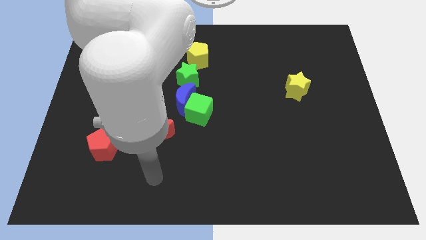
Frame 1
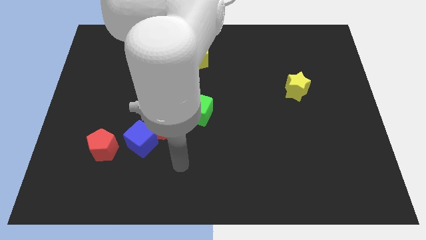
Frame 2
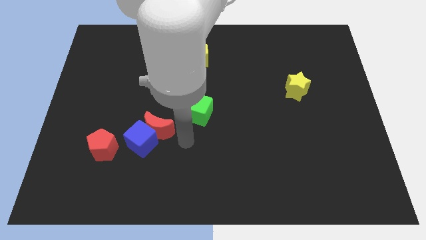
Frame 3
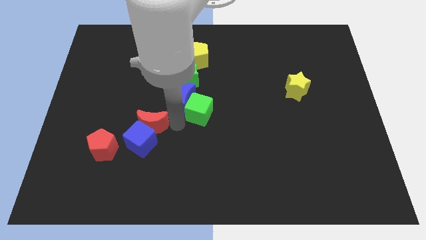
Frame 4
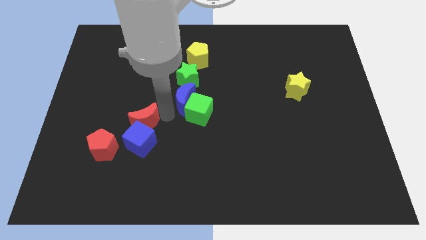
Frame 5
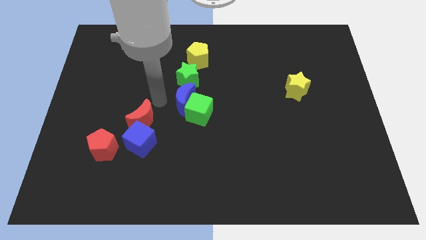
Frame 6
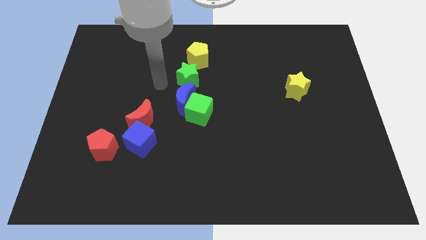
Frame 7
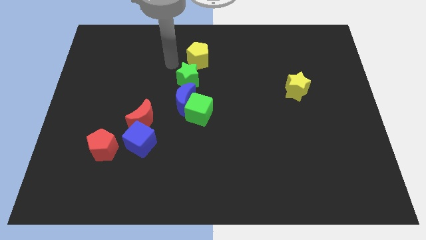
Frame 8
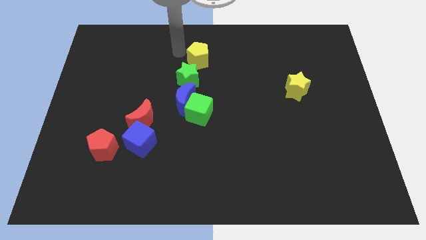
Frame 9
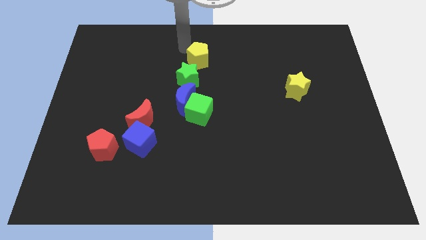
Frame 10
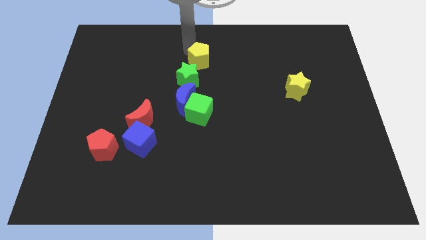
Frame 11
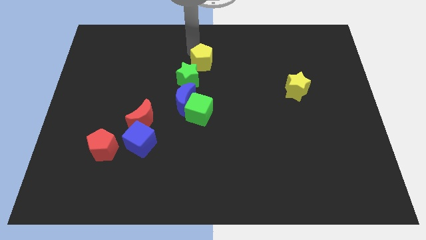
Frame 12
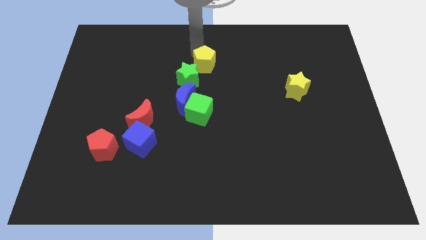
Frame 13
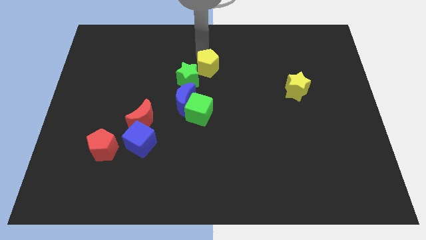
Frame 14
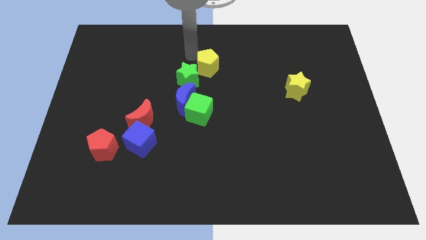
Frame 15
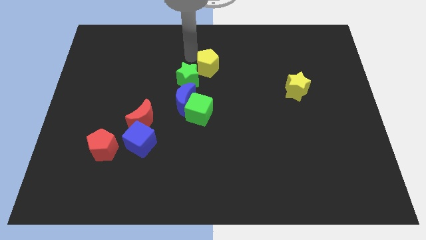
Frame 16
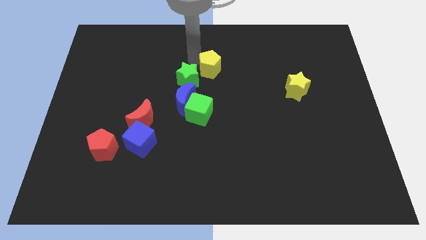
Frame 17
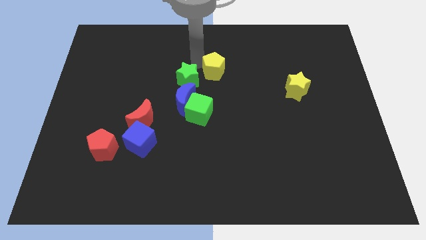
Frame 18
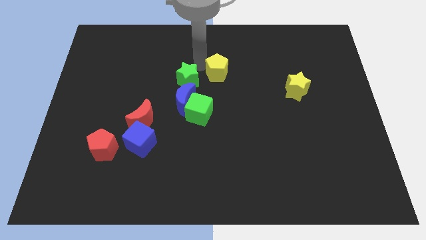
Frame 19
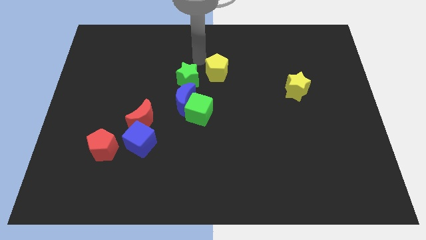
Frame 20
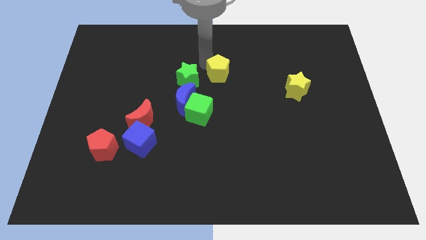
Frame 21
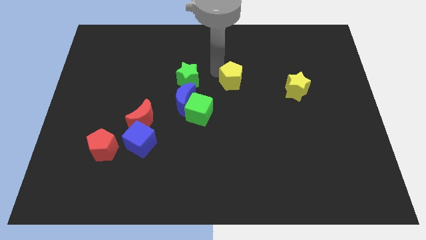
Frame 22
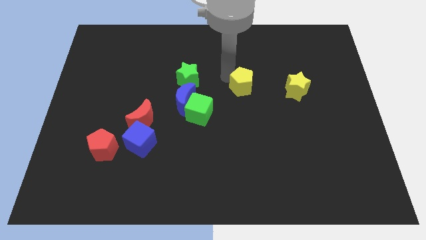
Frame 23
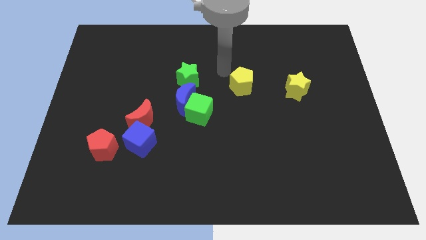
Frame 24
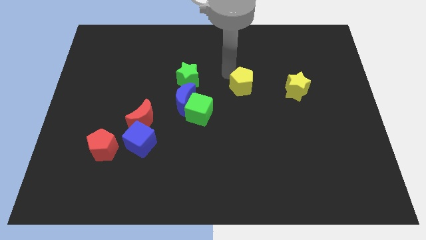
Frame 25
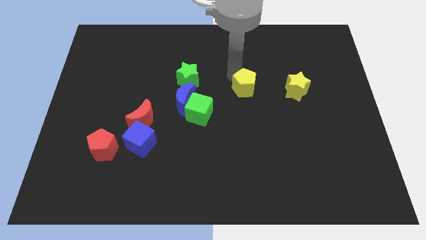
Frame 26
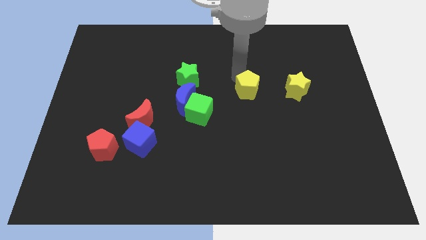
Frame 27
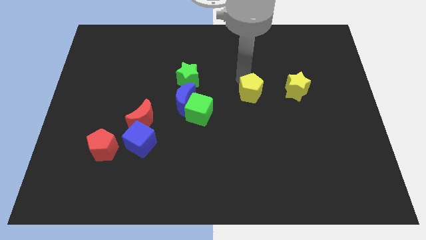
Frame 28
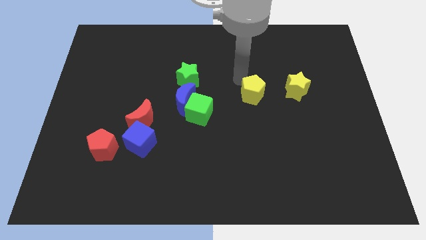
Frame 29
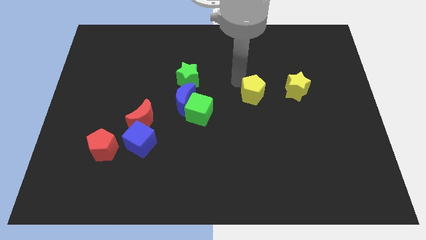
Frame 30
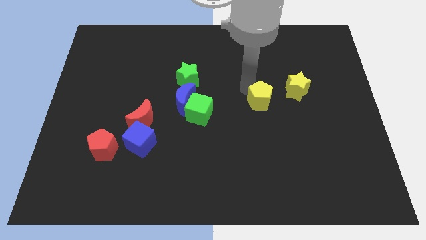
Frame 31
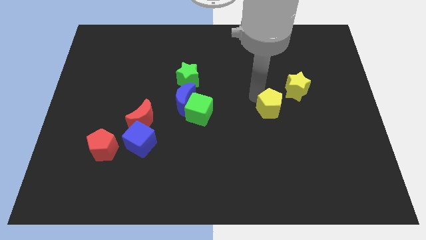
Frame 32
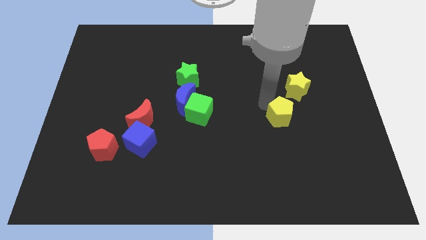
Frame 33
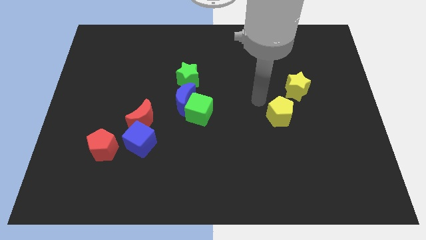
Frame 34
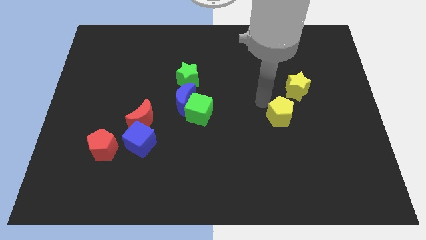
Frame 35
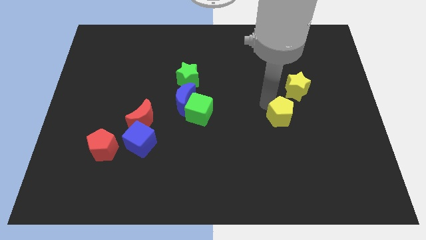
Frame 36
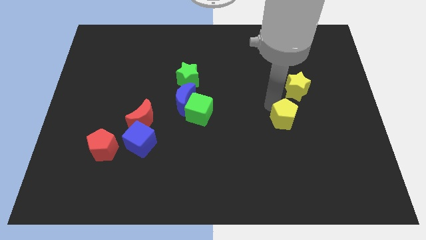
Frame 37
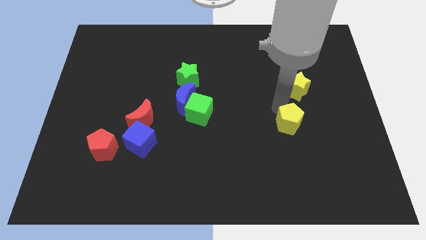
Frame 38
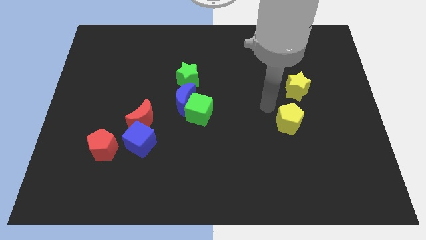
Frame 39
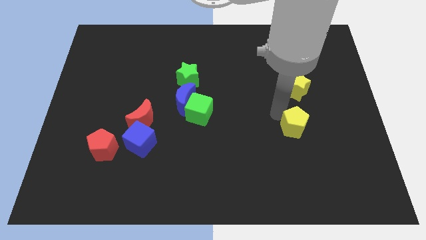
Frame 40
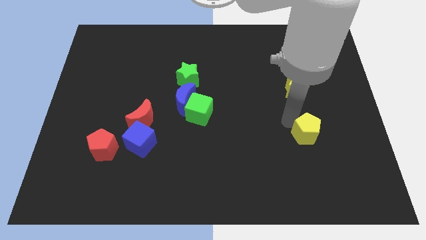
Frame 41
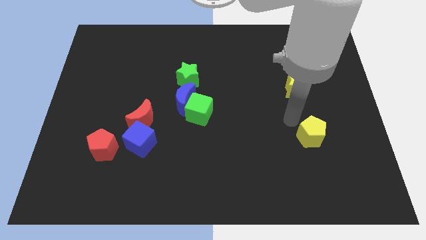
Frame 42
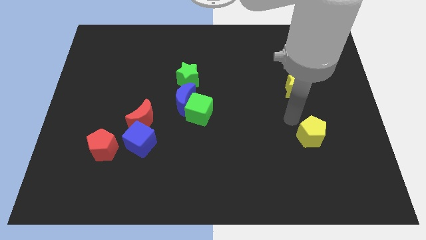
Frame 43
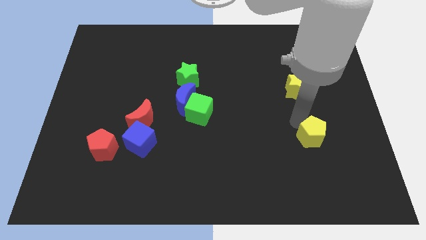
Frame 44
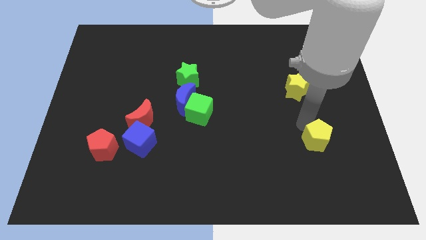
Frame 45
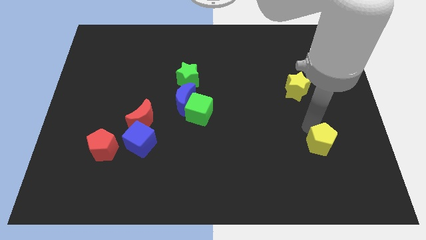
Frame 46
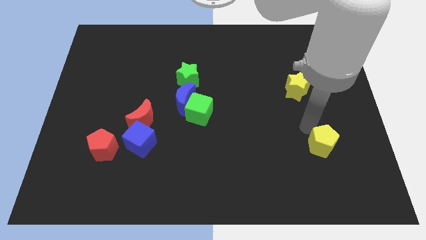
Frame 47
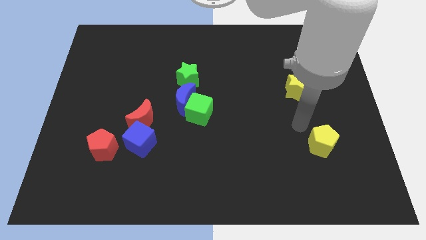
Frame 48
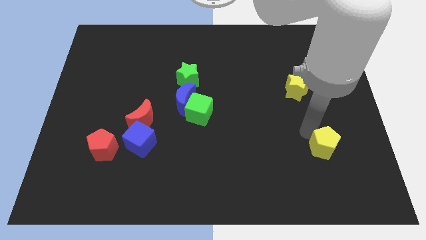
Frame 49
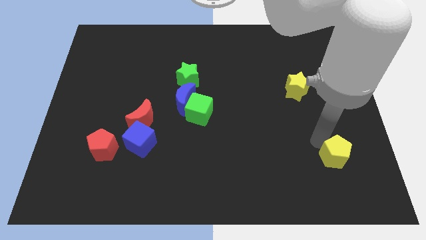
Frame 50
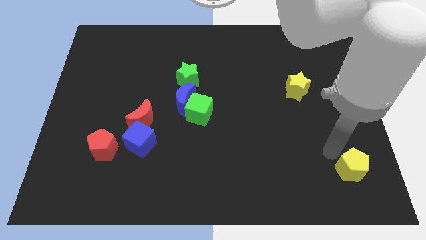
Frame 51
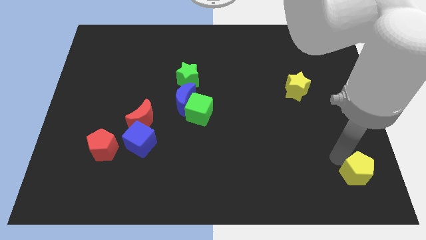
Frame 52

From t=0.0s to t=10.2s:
move the yellow pentagon to the bottom right corner

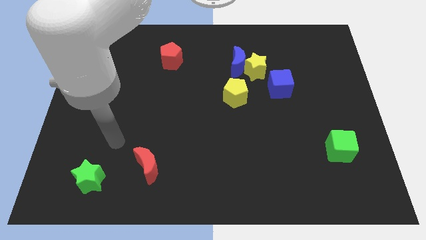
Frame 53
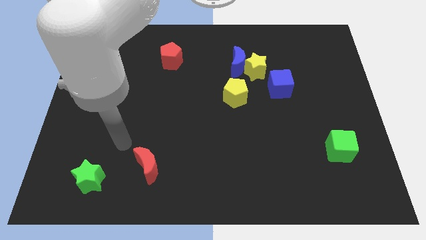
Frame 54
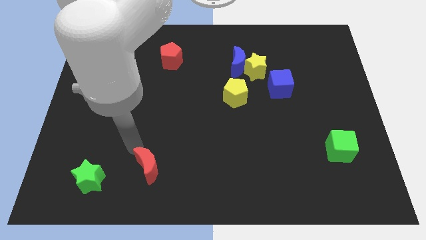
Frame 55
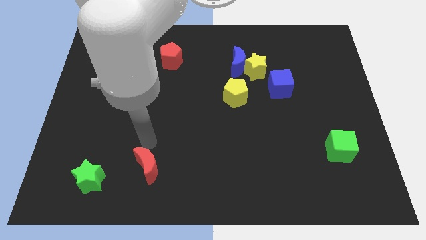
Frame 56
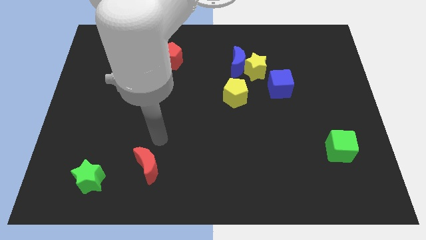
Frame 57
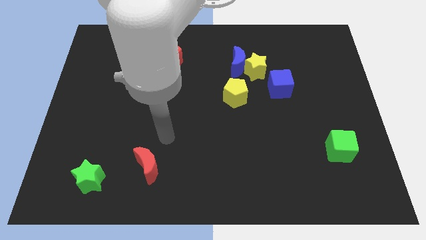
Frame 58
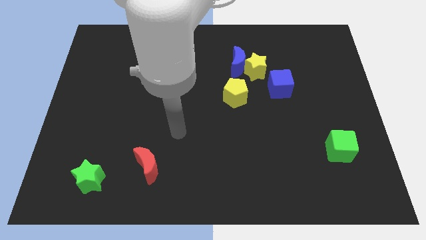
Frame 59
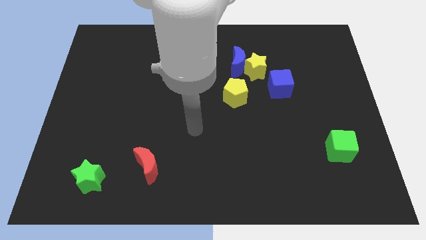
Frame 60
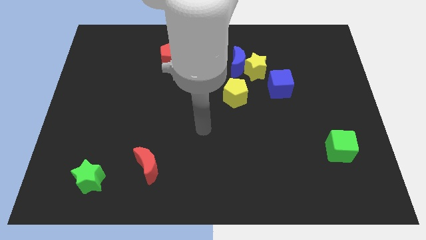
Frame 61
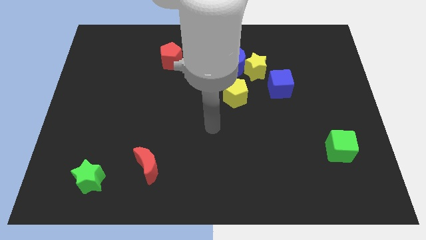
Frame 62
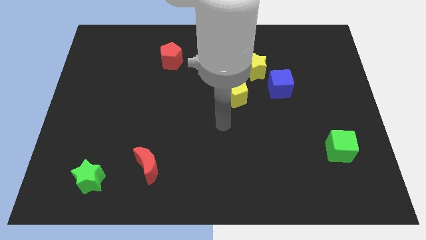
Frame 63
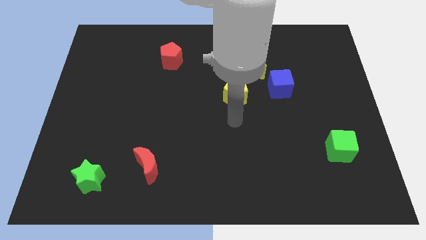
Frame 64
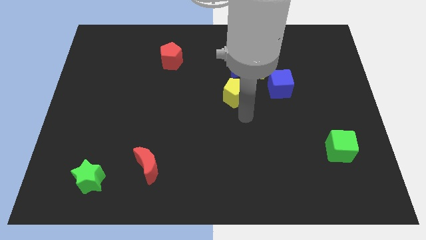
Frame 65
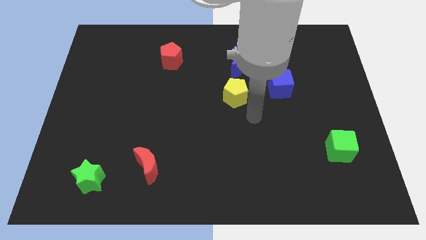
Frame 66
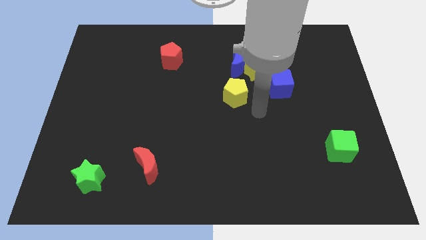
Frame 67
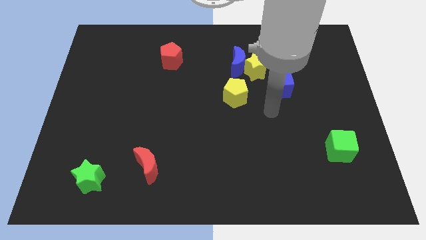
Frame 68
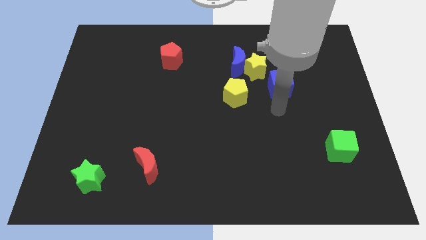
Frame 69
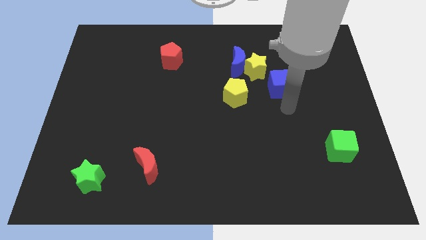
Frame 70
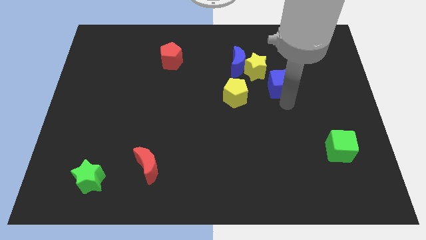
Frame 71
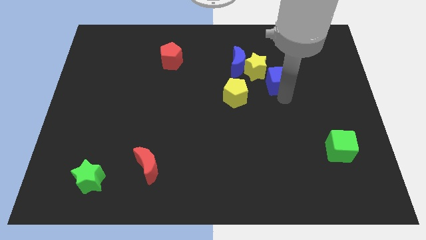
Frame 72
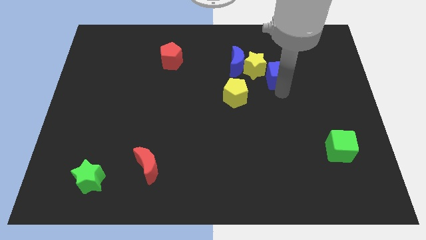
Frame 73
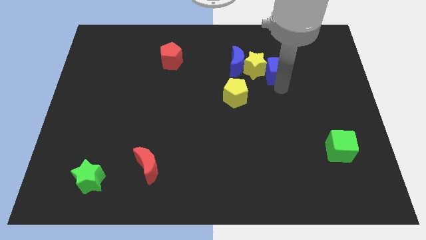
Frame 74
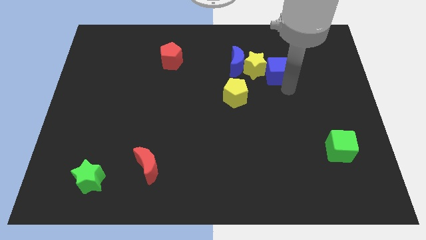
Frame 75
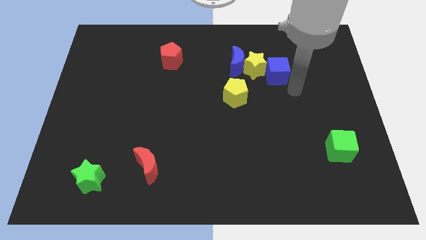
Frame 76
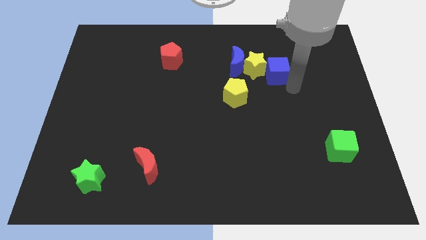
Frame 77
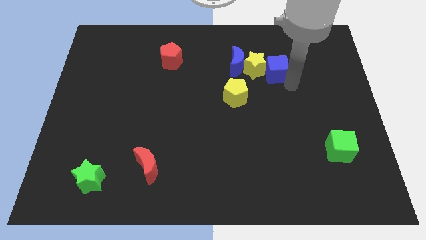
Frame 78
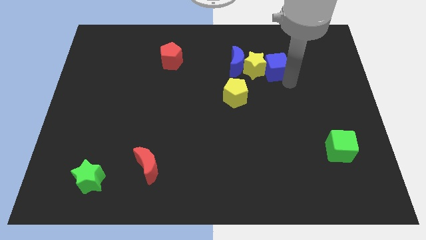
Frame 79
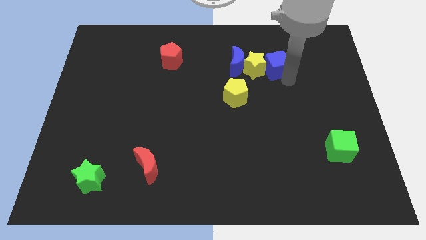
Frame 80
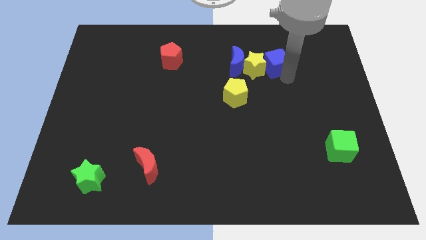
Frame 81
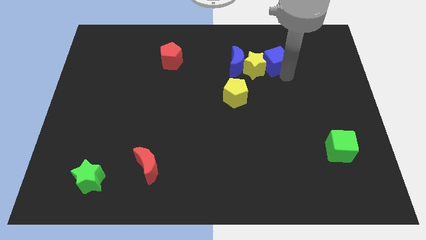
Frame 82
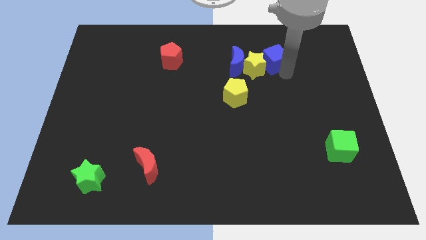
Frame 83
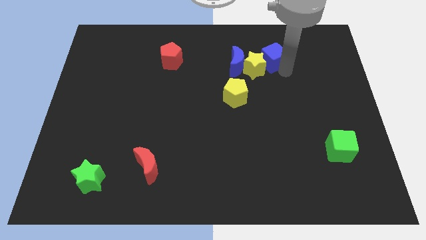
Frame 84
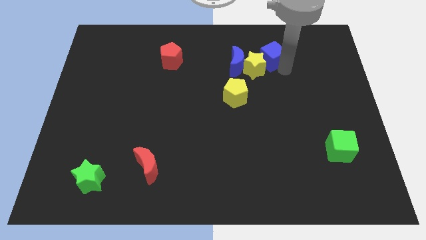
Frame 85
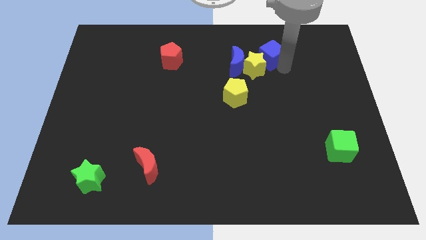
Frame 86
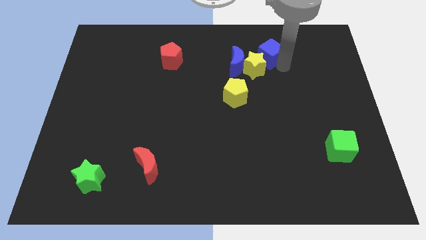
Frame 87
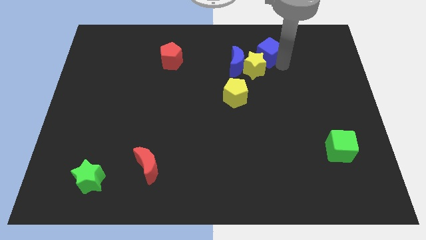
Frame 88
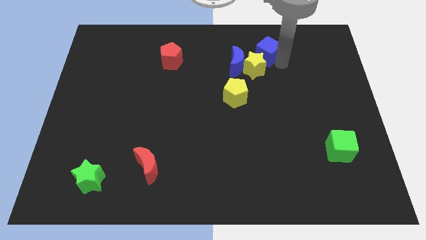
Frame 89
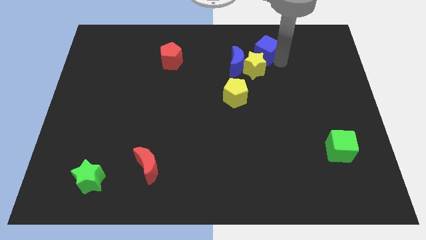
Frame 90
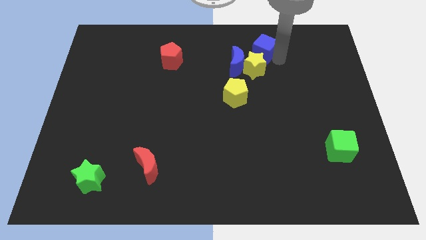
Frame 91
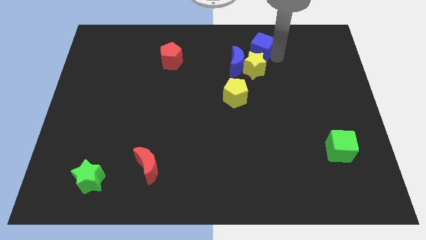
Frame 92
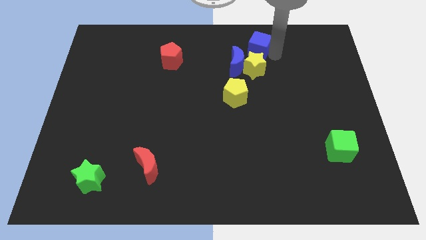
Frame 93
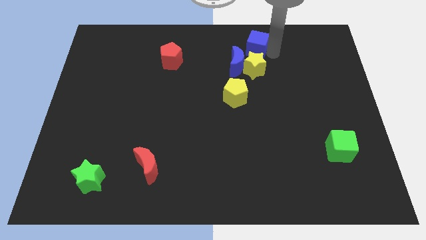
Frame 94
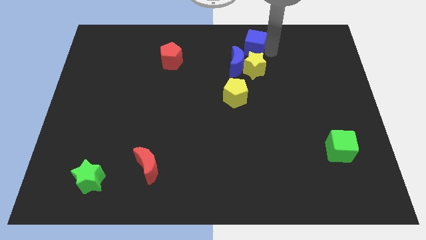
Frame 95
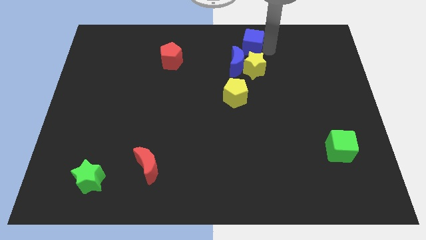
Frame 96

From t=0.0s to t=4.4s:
slide the blue cube to the top
